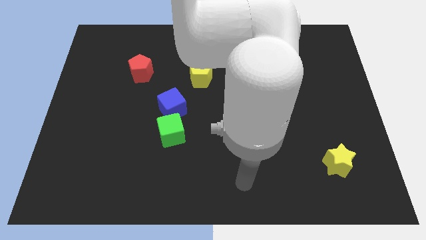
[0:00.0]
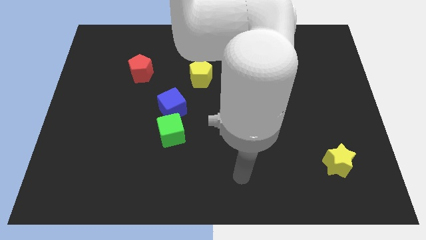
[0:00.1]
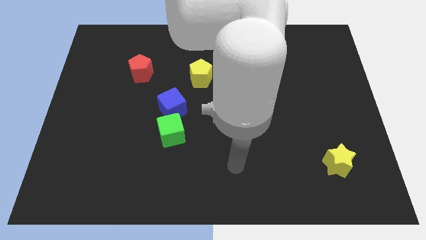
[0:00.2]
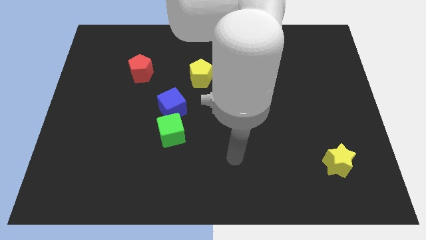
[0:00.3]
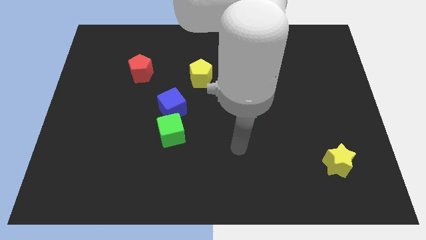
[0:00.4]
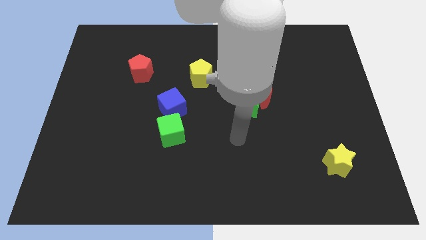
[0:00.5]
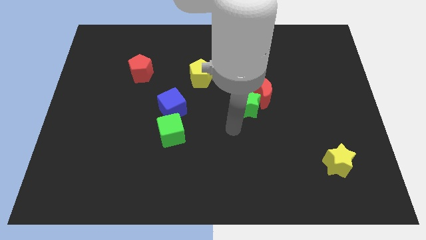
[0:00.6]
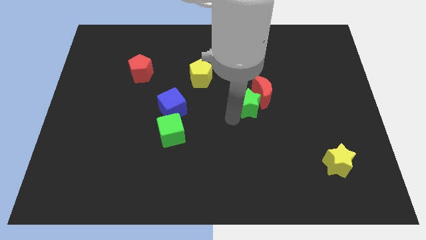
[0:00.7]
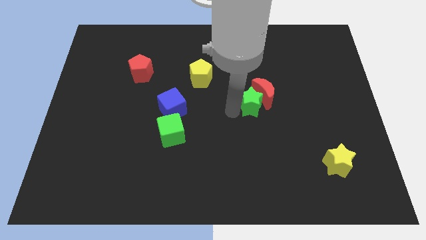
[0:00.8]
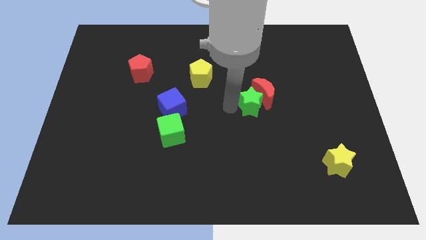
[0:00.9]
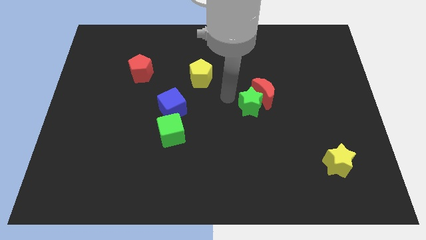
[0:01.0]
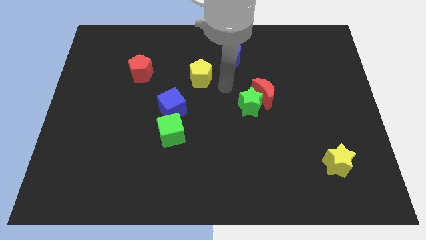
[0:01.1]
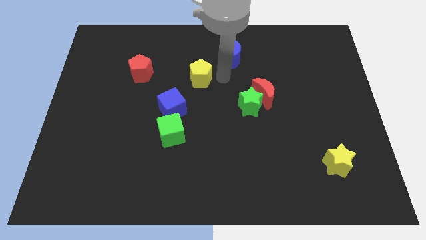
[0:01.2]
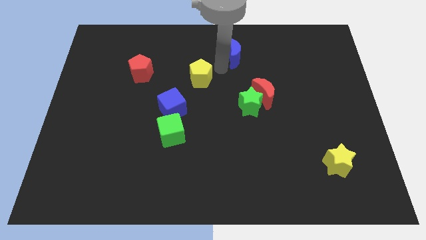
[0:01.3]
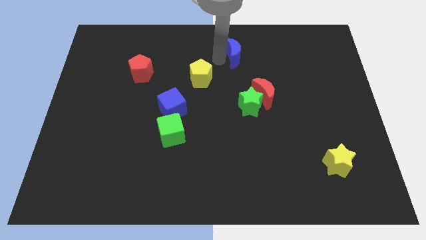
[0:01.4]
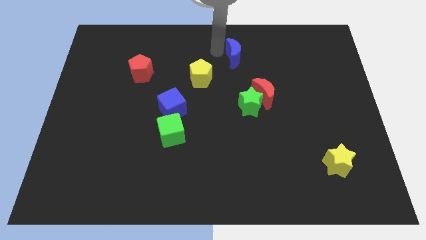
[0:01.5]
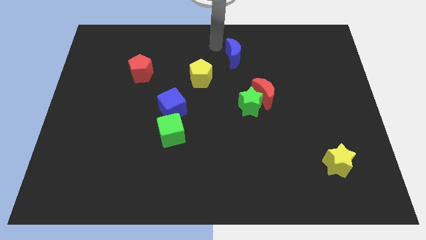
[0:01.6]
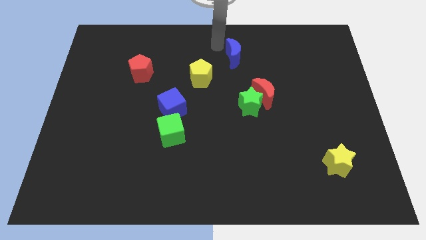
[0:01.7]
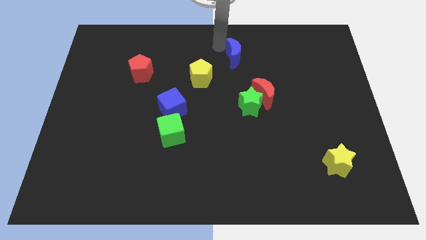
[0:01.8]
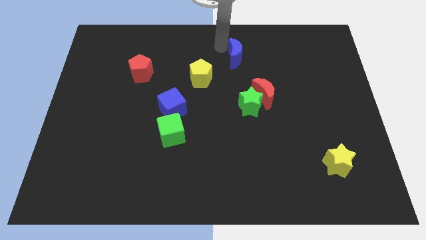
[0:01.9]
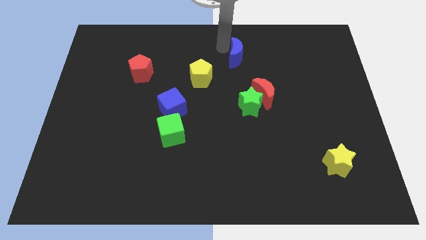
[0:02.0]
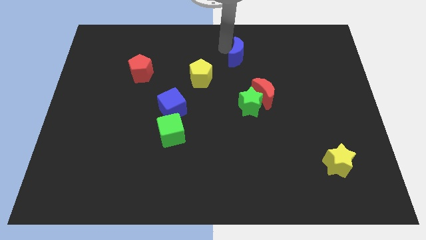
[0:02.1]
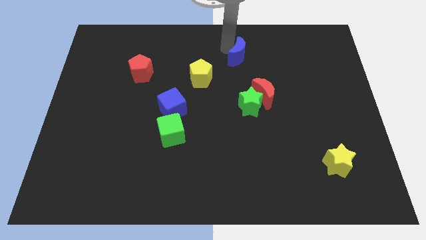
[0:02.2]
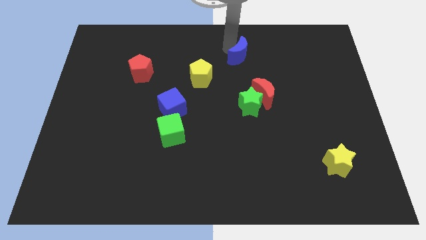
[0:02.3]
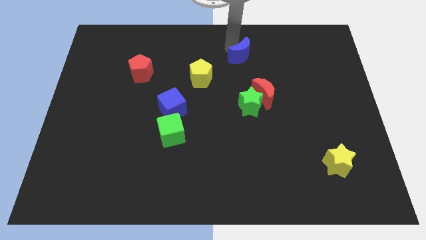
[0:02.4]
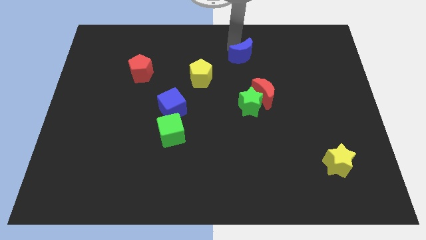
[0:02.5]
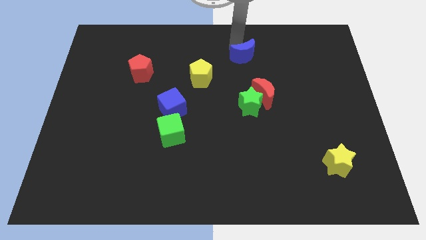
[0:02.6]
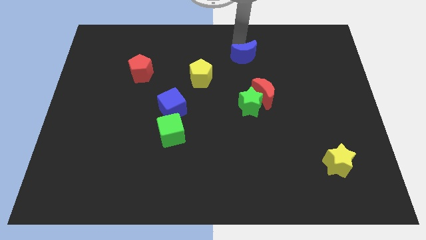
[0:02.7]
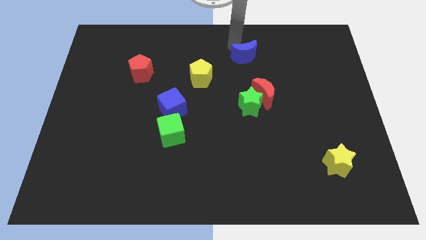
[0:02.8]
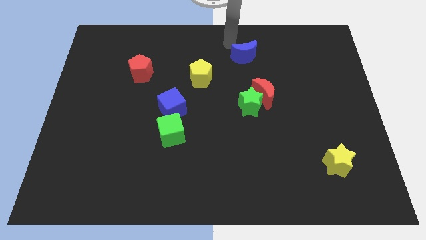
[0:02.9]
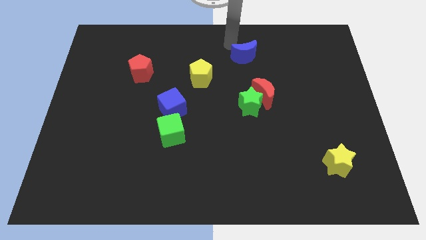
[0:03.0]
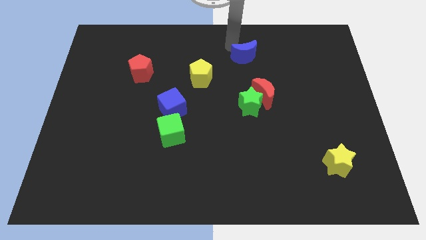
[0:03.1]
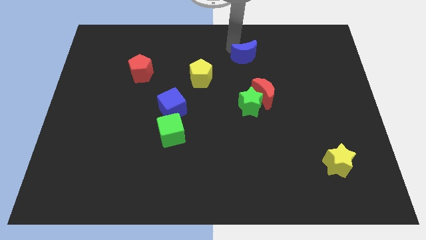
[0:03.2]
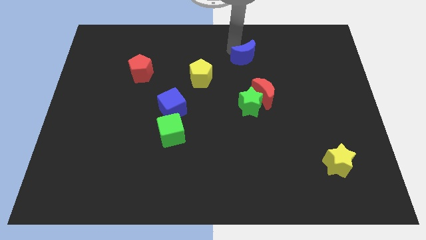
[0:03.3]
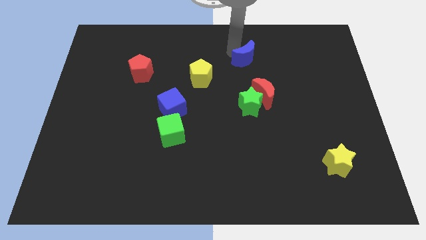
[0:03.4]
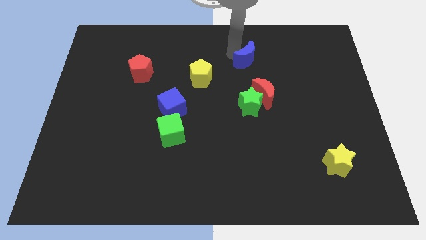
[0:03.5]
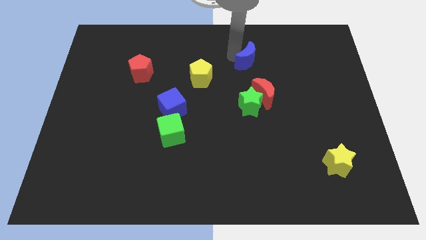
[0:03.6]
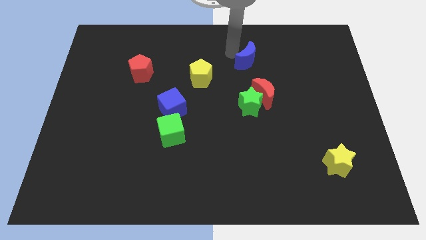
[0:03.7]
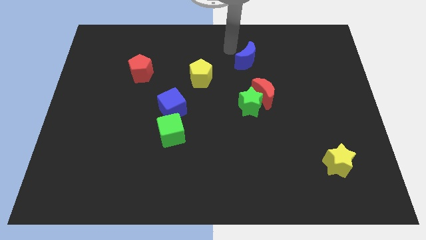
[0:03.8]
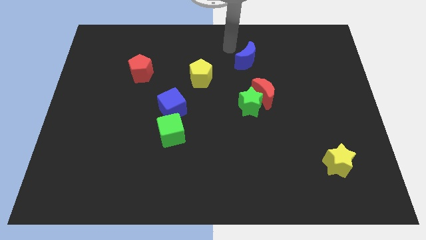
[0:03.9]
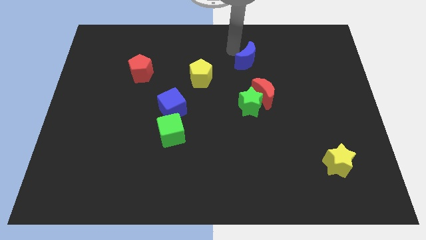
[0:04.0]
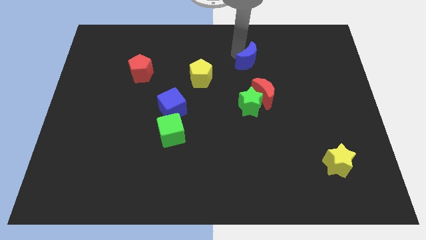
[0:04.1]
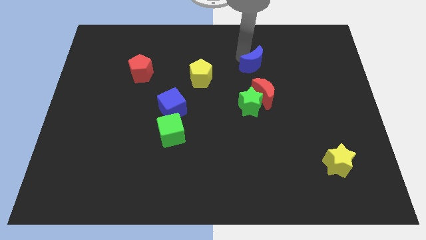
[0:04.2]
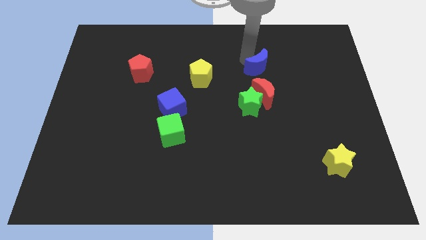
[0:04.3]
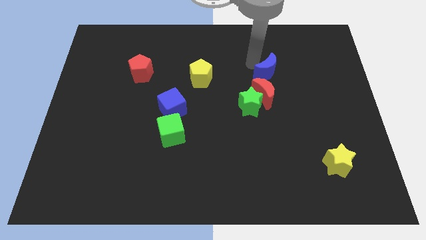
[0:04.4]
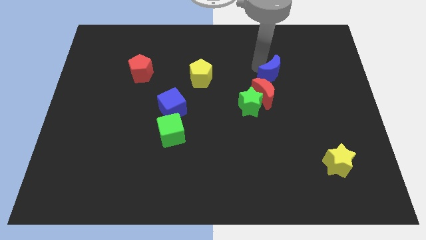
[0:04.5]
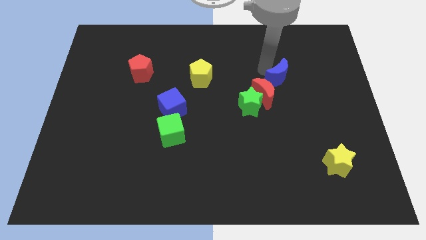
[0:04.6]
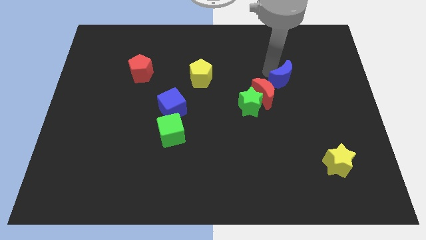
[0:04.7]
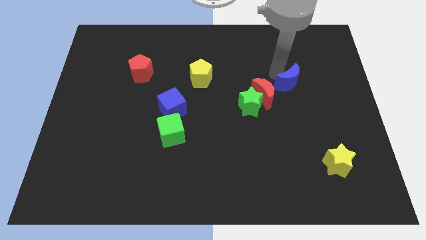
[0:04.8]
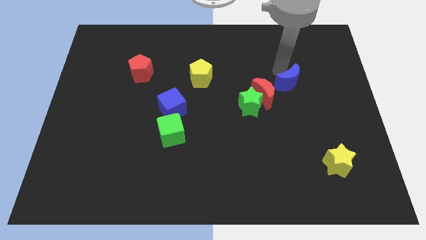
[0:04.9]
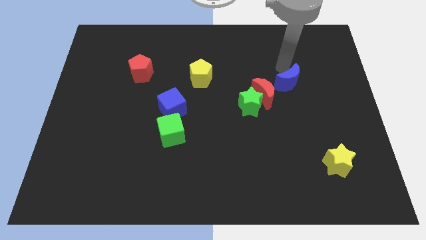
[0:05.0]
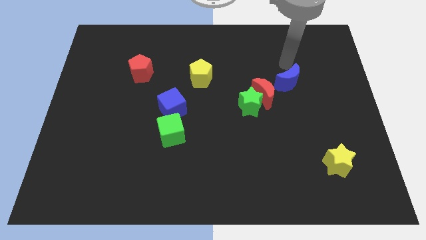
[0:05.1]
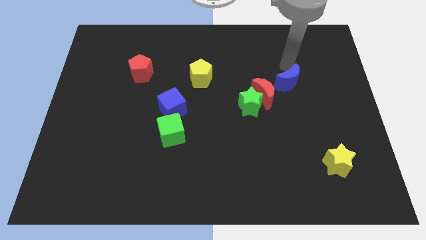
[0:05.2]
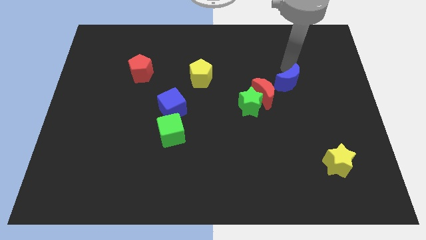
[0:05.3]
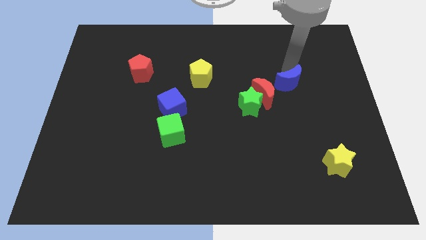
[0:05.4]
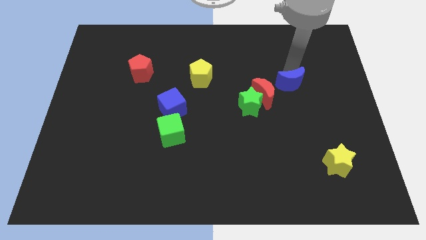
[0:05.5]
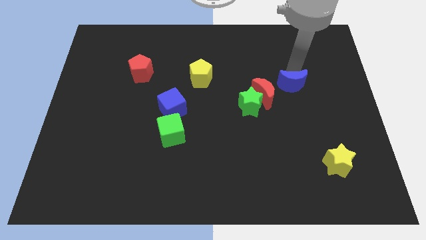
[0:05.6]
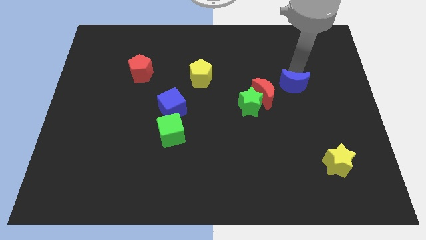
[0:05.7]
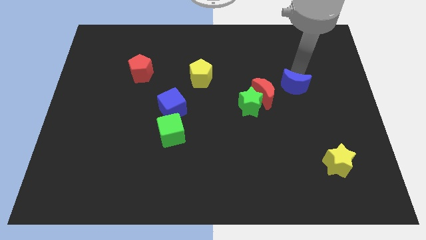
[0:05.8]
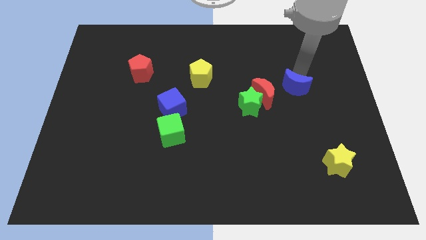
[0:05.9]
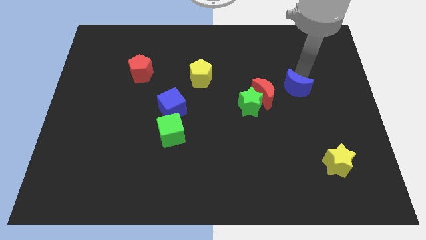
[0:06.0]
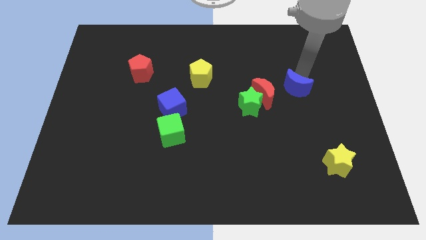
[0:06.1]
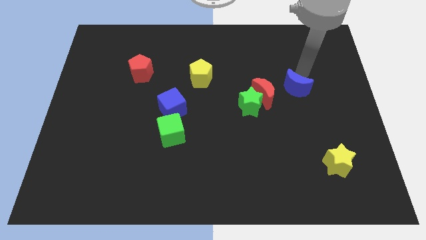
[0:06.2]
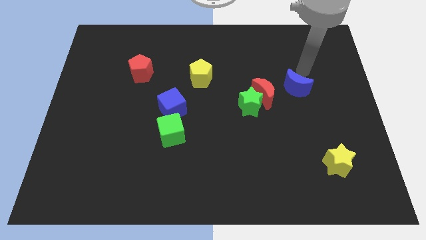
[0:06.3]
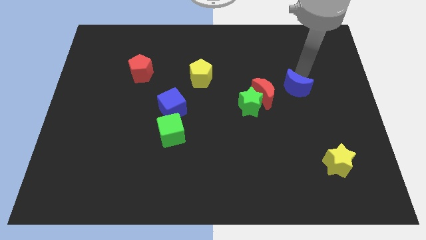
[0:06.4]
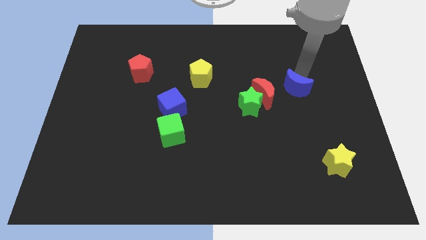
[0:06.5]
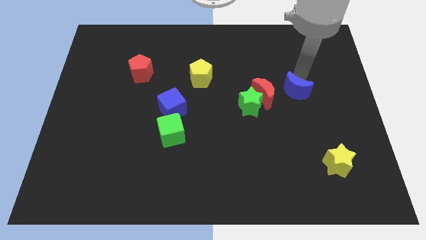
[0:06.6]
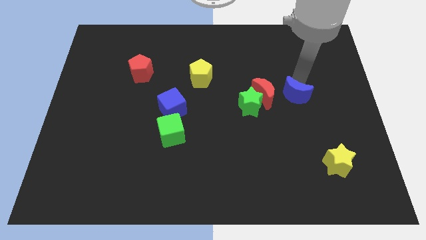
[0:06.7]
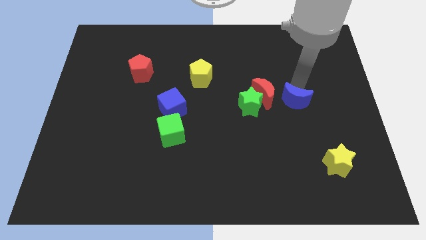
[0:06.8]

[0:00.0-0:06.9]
move the blue moon to the bottom right of the red moon

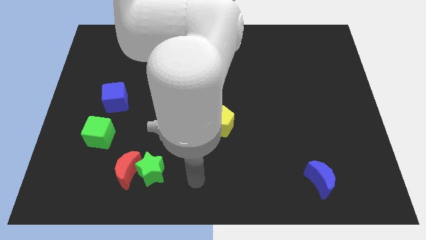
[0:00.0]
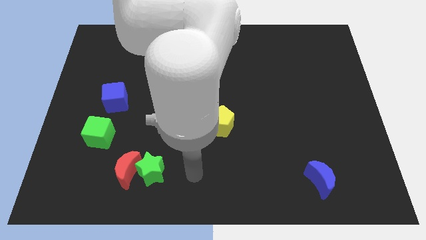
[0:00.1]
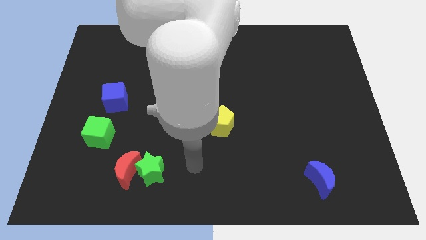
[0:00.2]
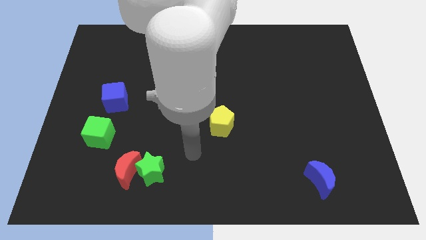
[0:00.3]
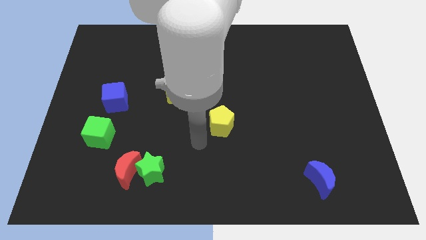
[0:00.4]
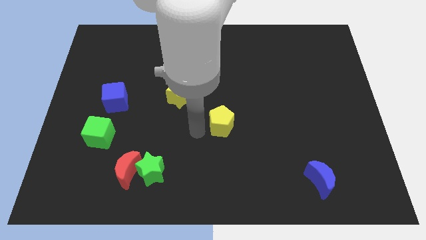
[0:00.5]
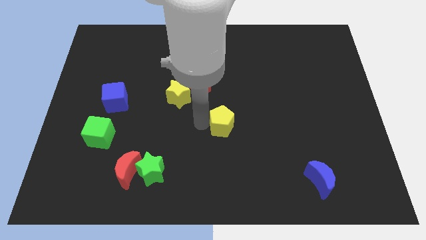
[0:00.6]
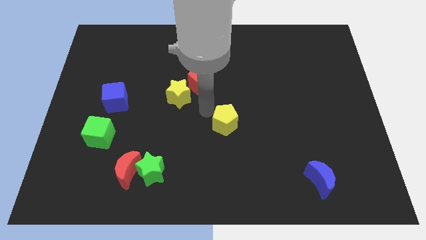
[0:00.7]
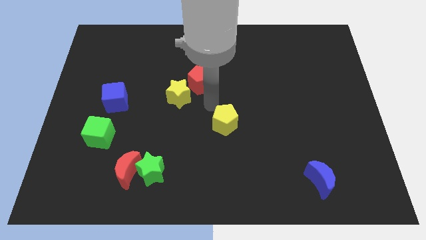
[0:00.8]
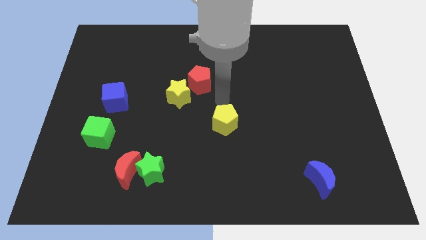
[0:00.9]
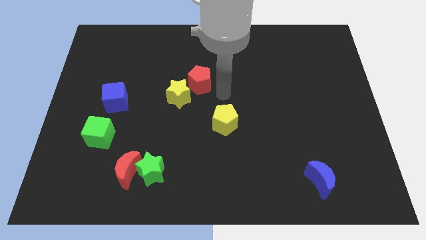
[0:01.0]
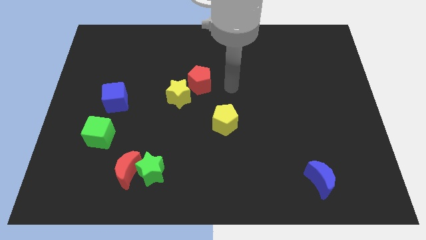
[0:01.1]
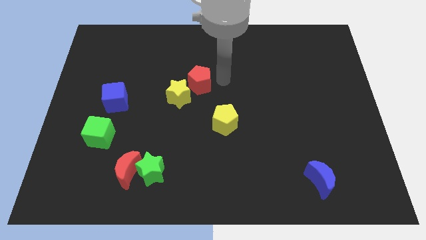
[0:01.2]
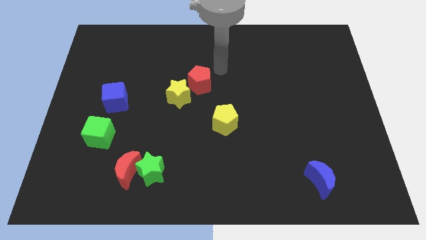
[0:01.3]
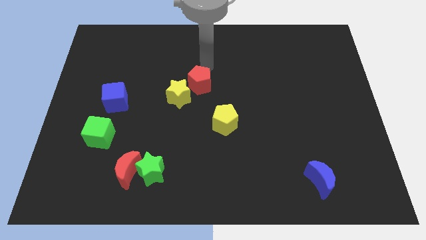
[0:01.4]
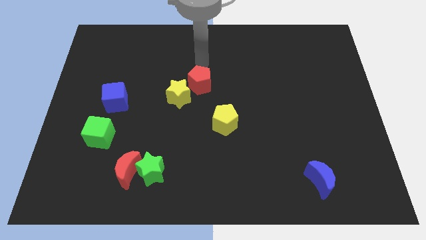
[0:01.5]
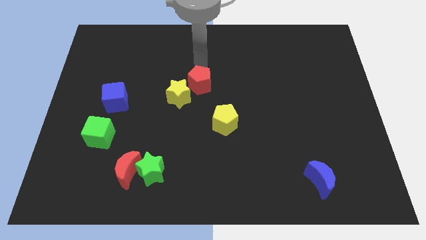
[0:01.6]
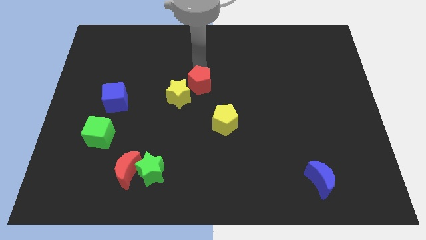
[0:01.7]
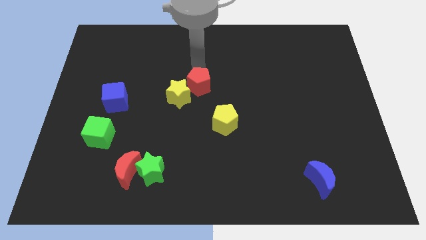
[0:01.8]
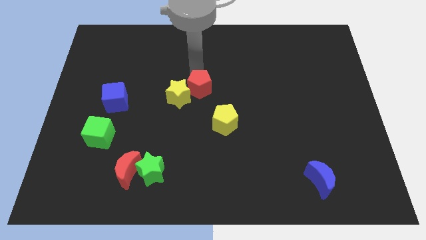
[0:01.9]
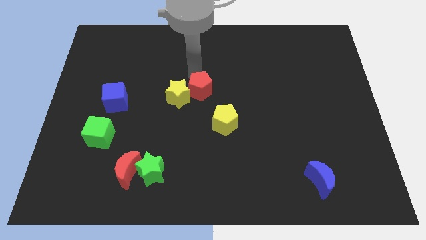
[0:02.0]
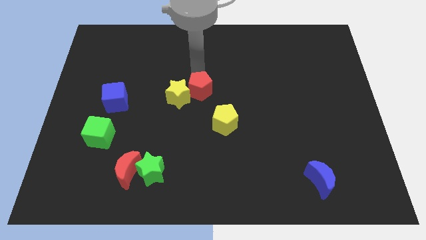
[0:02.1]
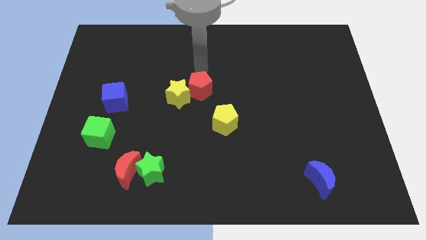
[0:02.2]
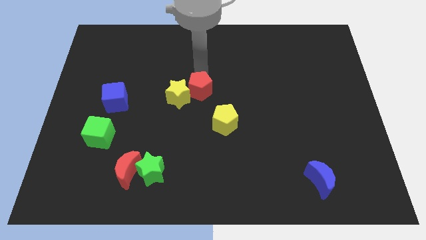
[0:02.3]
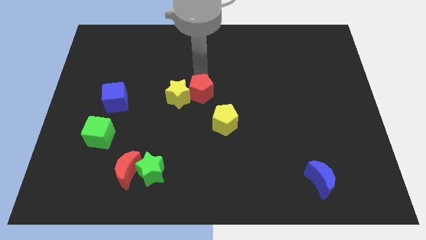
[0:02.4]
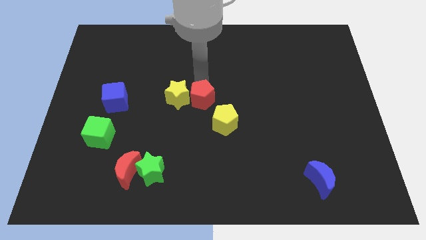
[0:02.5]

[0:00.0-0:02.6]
put the red pentagon to the bottom right side of the yellow star
